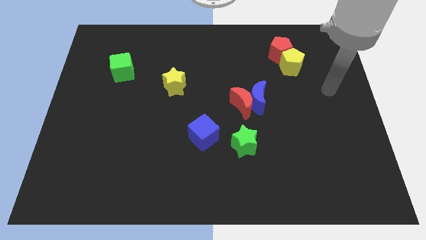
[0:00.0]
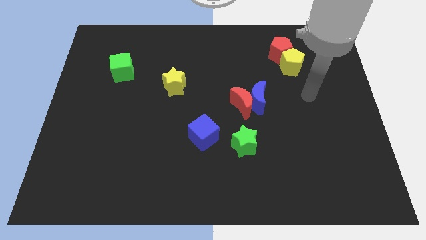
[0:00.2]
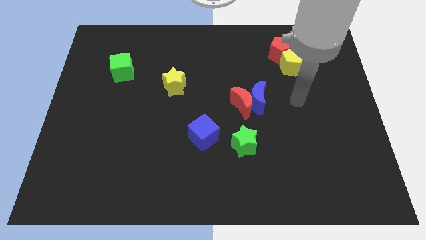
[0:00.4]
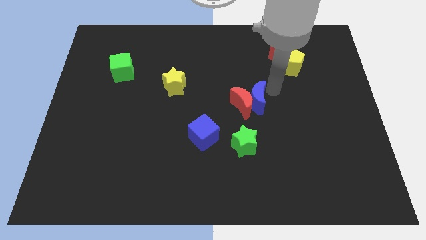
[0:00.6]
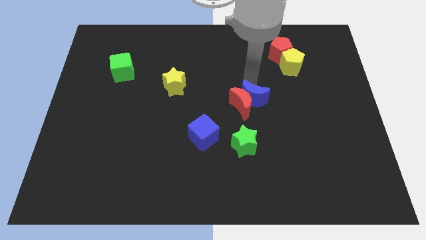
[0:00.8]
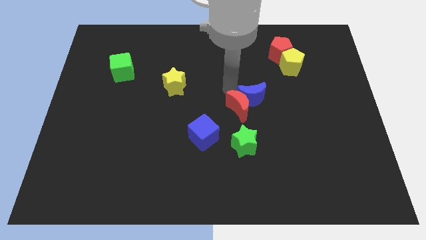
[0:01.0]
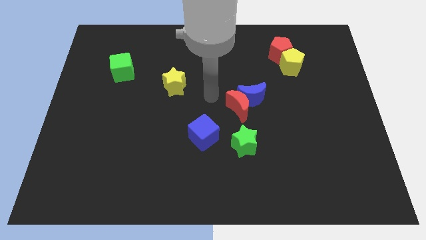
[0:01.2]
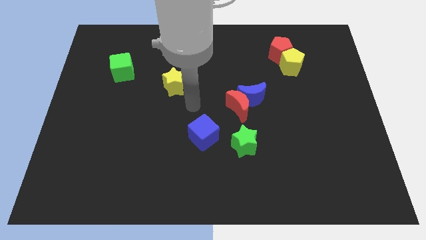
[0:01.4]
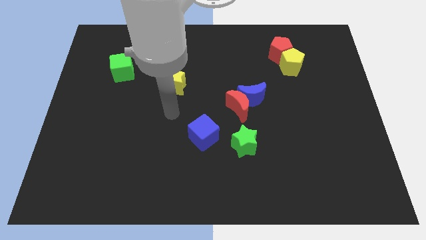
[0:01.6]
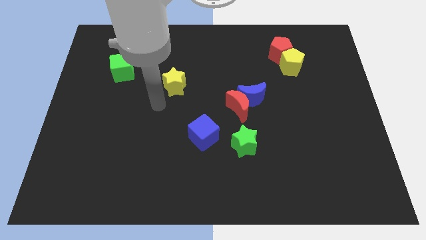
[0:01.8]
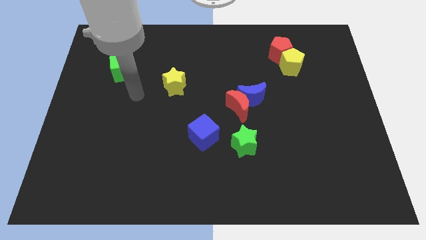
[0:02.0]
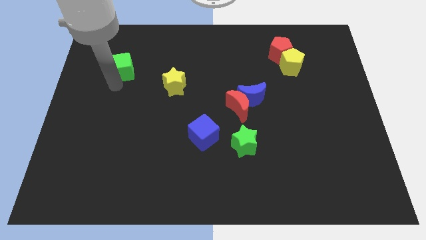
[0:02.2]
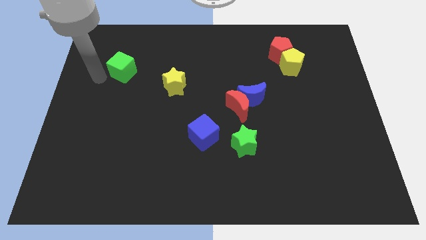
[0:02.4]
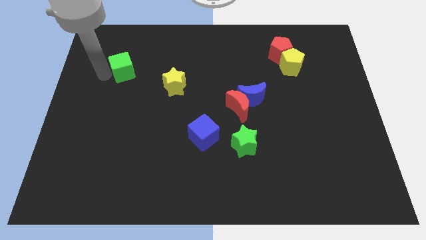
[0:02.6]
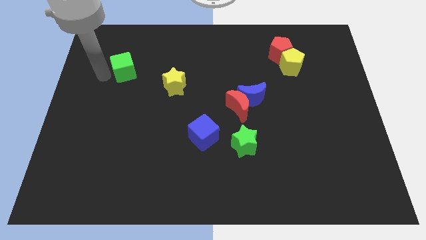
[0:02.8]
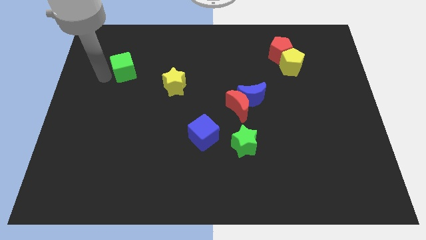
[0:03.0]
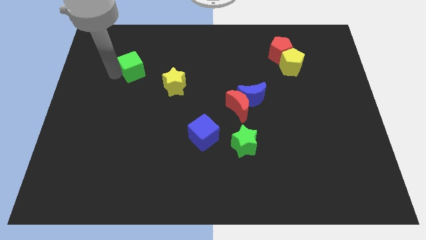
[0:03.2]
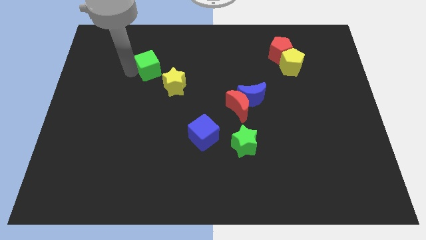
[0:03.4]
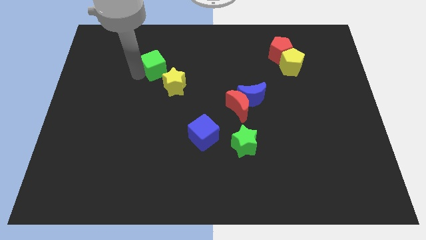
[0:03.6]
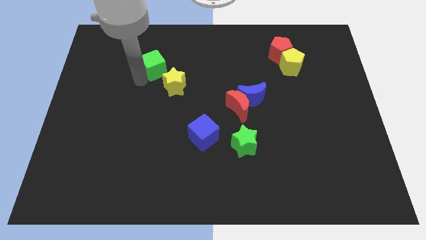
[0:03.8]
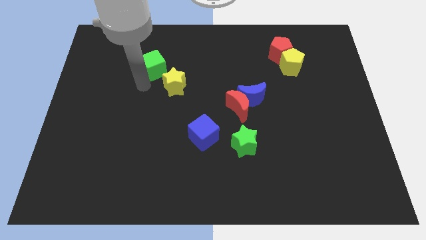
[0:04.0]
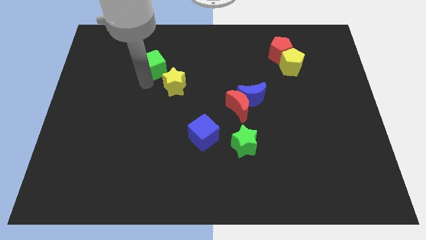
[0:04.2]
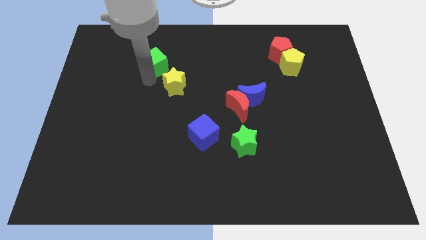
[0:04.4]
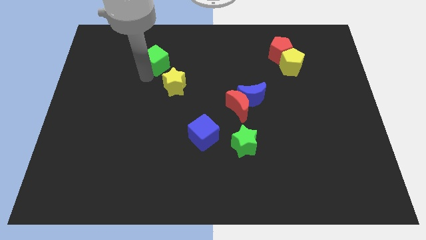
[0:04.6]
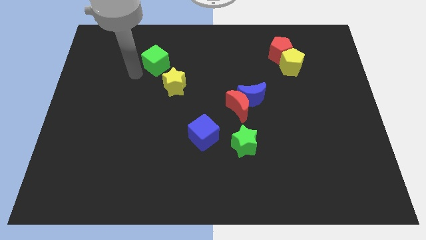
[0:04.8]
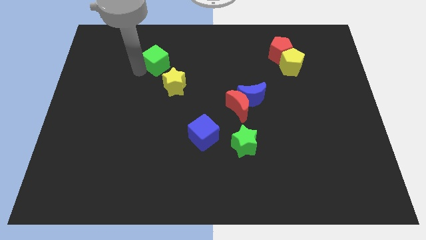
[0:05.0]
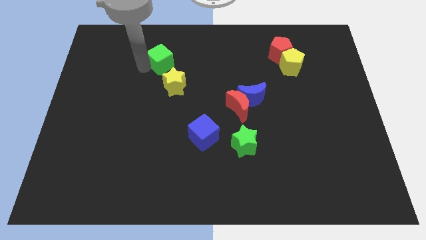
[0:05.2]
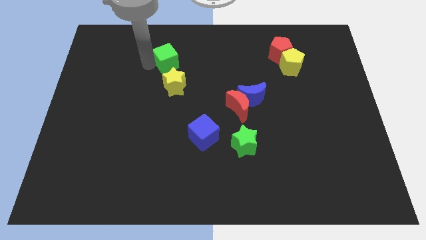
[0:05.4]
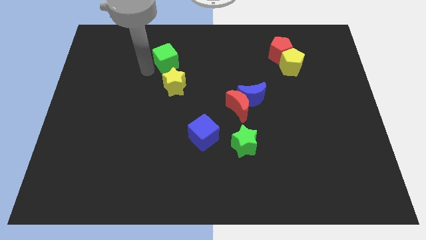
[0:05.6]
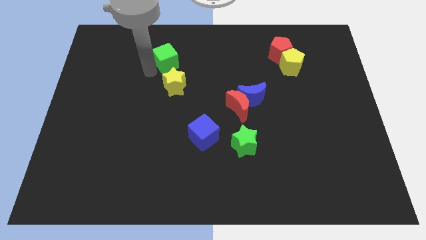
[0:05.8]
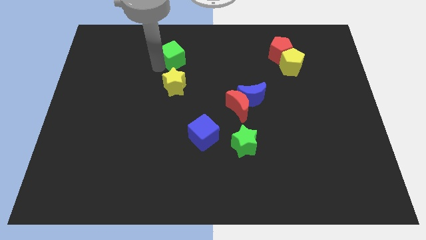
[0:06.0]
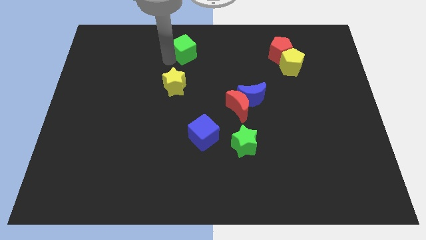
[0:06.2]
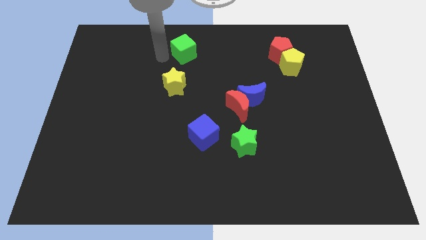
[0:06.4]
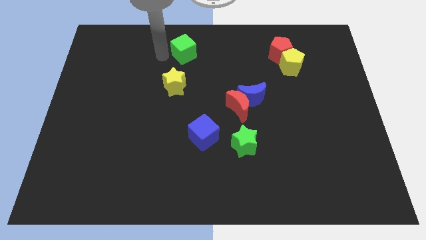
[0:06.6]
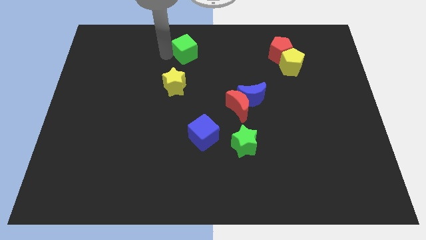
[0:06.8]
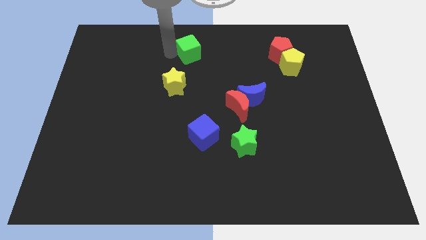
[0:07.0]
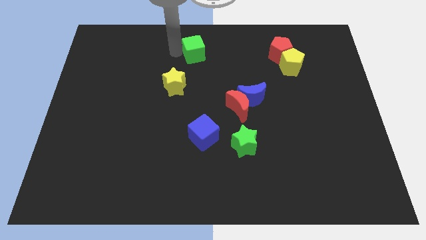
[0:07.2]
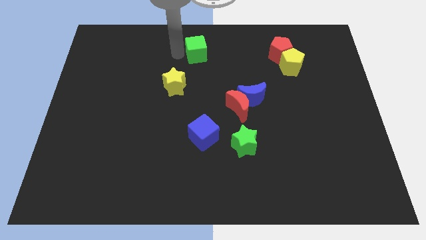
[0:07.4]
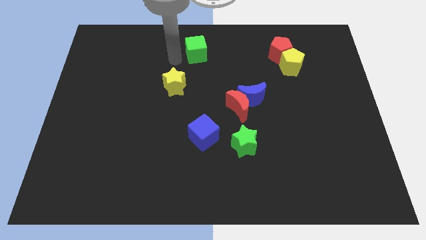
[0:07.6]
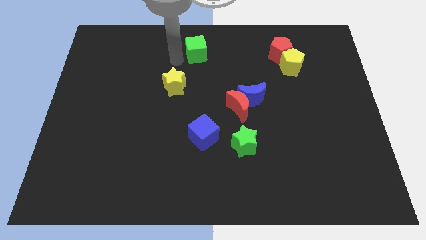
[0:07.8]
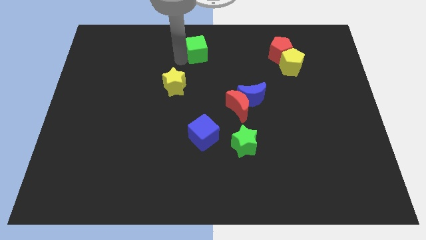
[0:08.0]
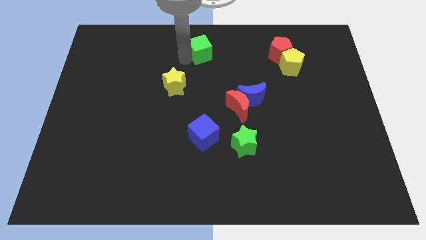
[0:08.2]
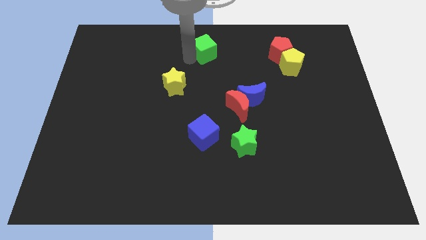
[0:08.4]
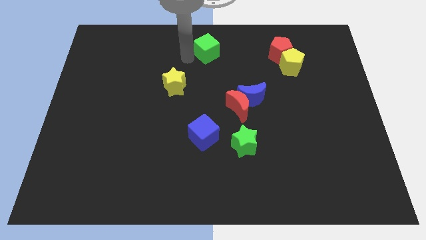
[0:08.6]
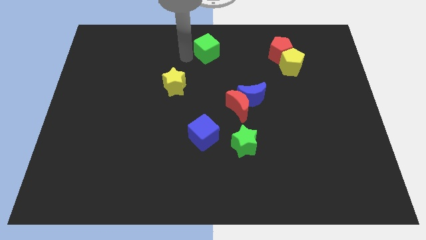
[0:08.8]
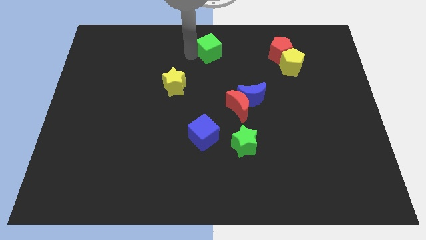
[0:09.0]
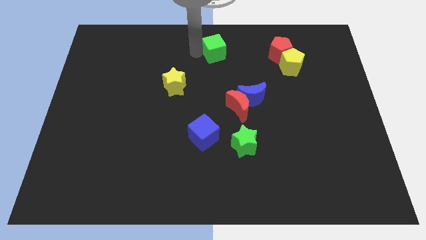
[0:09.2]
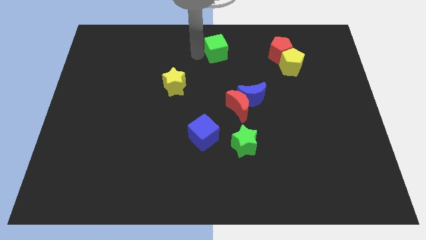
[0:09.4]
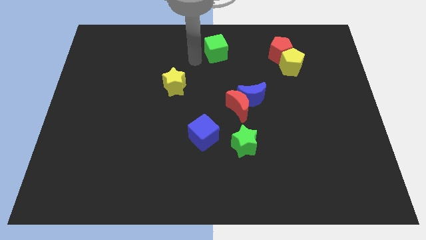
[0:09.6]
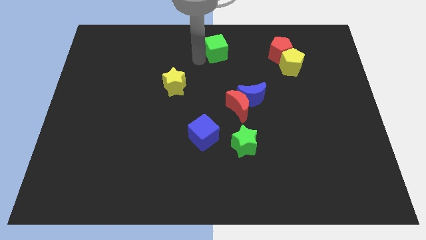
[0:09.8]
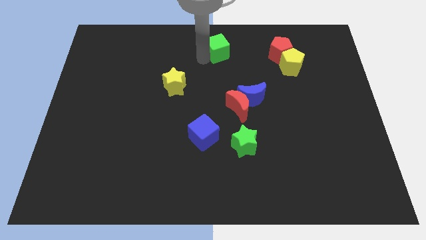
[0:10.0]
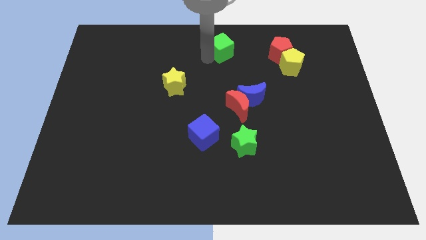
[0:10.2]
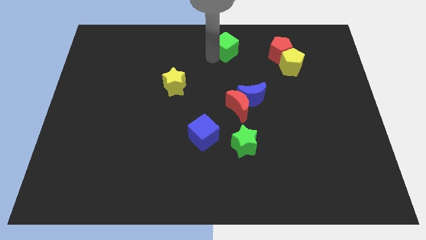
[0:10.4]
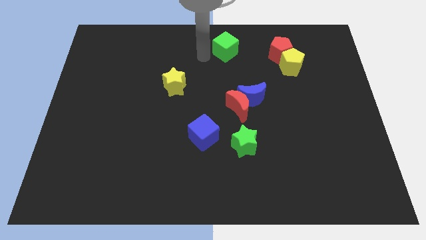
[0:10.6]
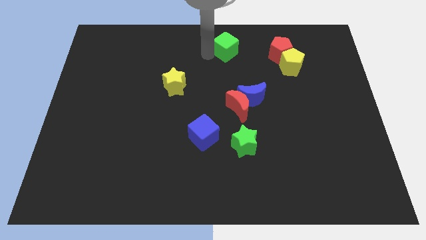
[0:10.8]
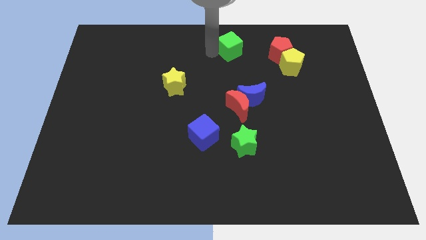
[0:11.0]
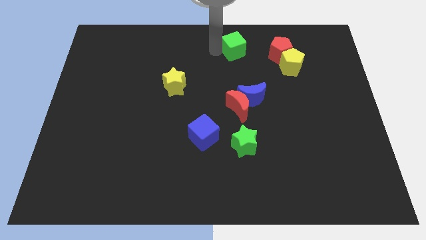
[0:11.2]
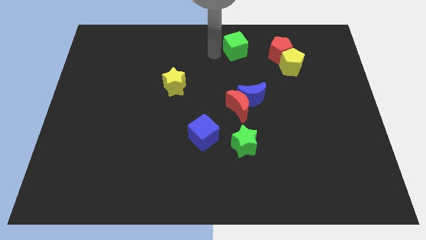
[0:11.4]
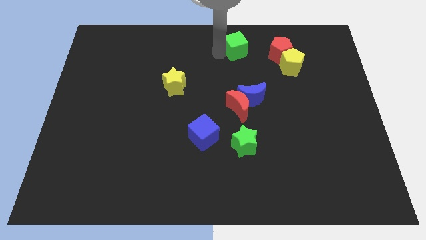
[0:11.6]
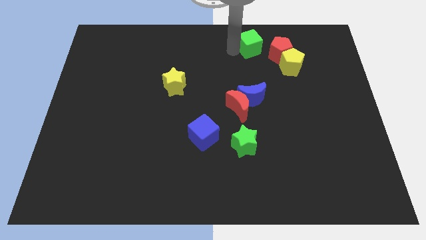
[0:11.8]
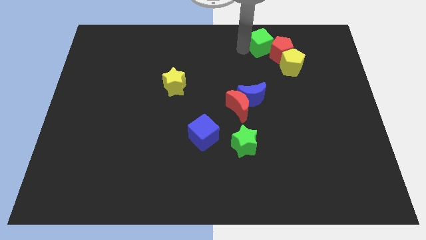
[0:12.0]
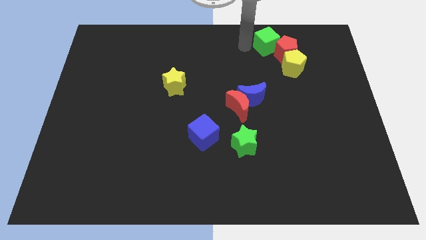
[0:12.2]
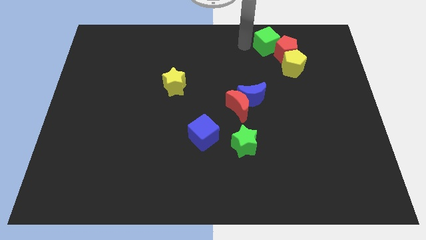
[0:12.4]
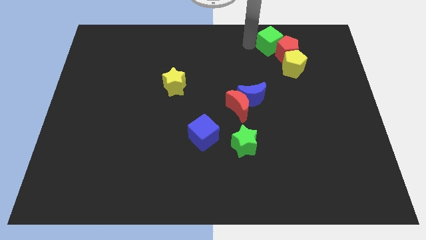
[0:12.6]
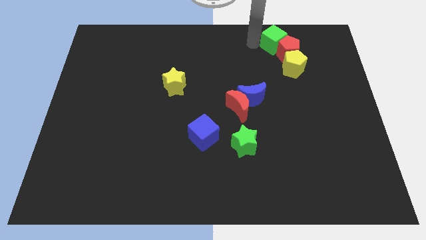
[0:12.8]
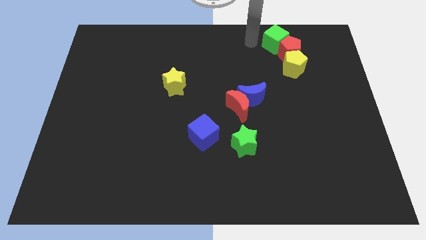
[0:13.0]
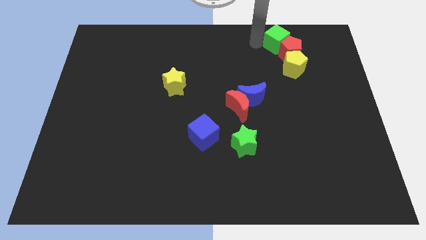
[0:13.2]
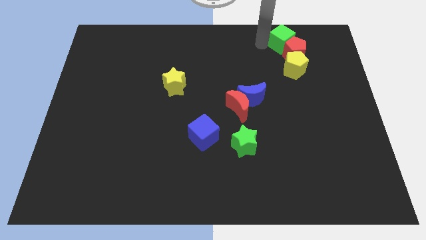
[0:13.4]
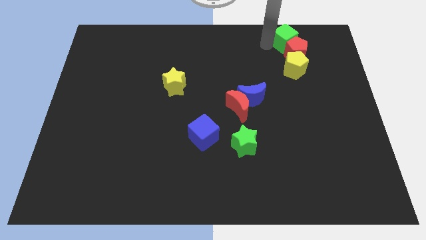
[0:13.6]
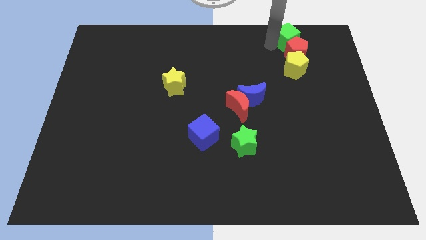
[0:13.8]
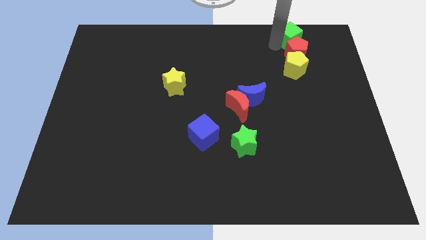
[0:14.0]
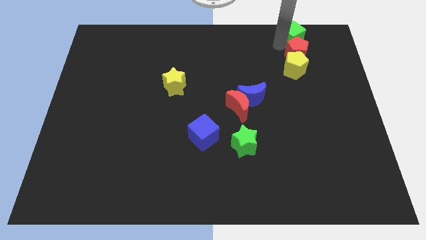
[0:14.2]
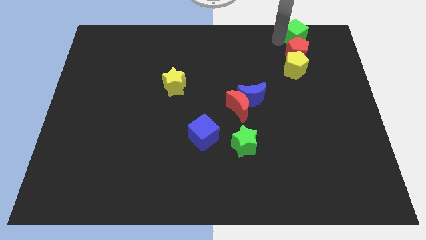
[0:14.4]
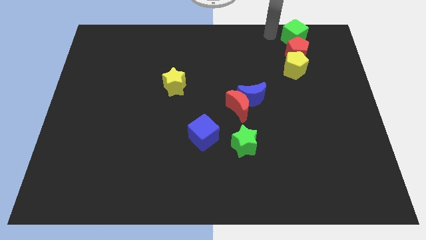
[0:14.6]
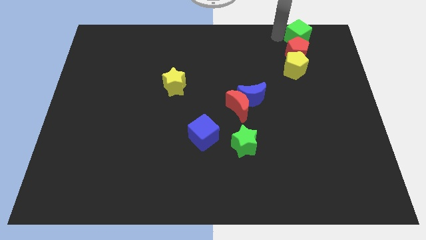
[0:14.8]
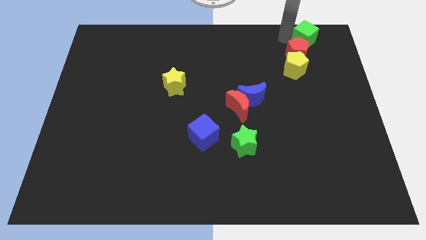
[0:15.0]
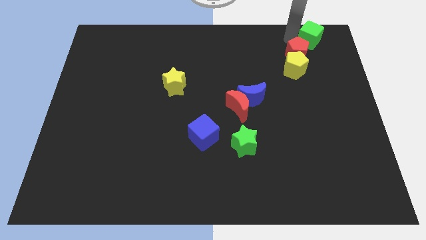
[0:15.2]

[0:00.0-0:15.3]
put the green cube to the top right corner
